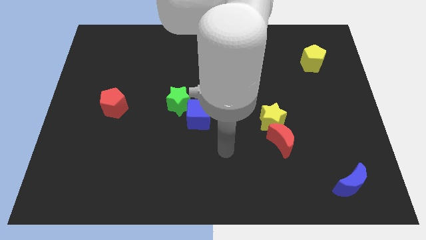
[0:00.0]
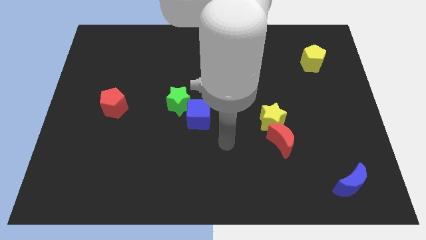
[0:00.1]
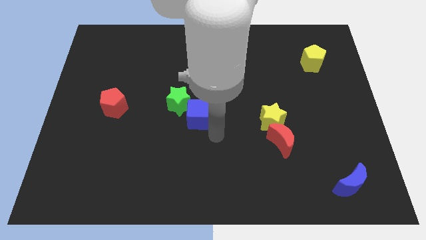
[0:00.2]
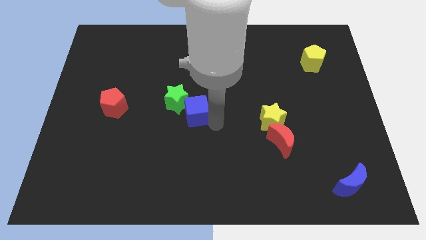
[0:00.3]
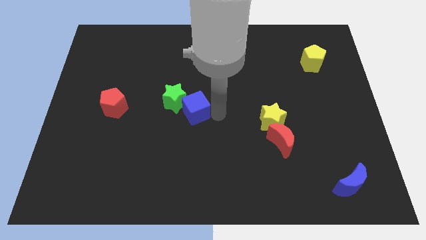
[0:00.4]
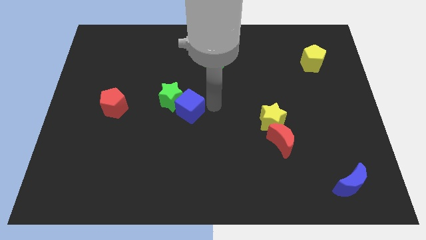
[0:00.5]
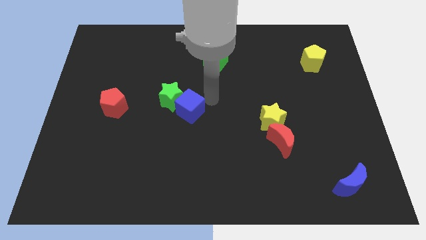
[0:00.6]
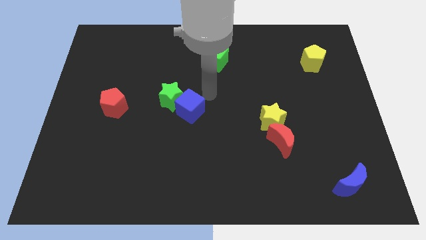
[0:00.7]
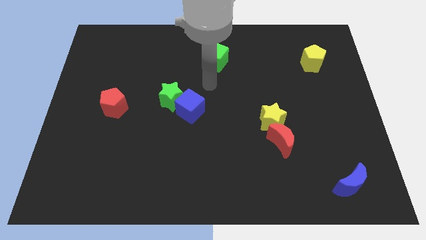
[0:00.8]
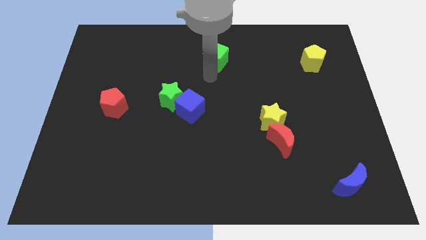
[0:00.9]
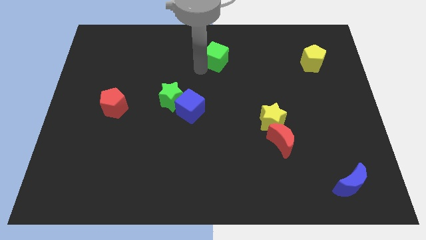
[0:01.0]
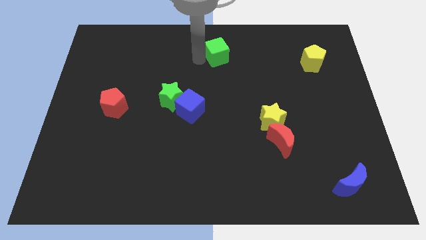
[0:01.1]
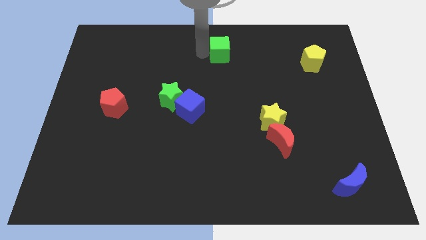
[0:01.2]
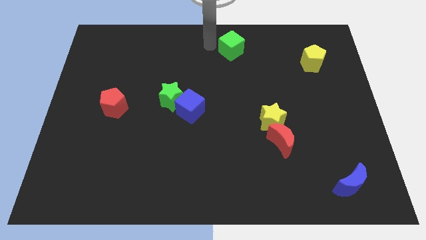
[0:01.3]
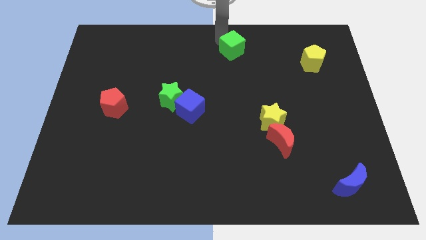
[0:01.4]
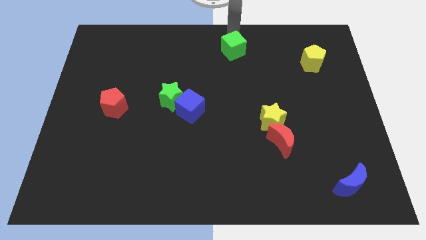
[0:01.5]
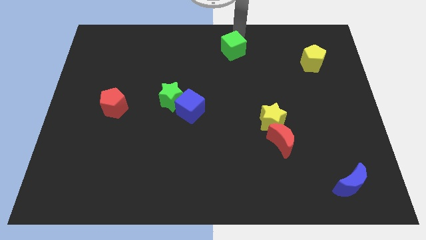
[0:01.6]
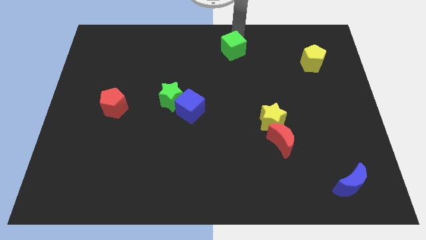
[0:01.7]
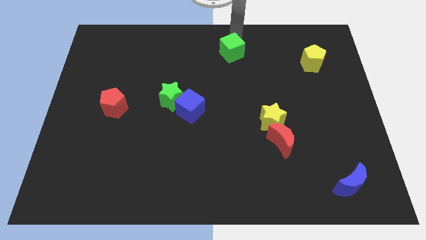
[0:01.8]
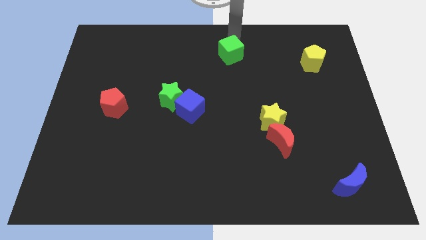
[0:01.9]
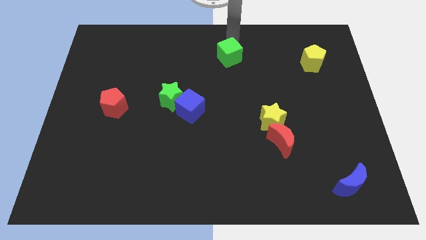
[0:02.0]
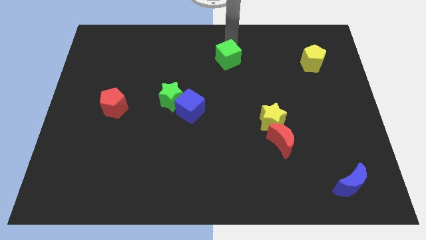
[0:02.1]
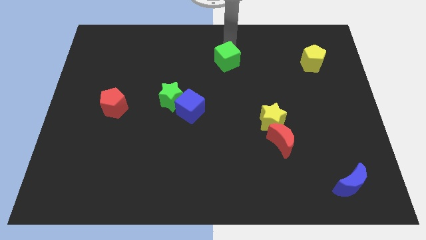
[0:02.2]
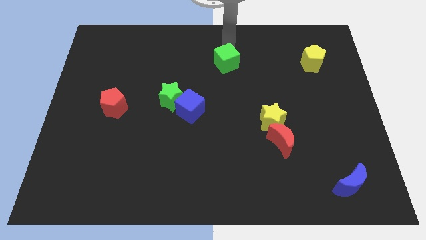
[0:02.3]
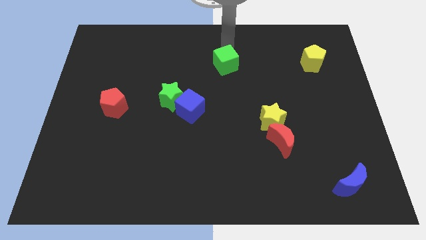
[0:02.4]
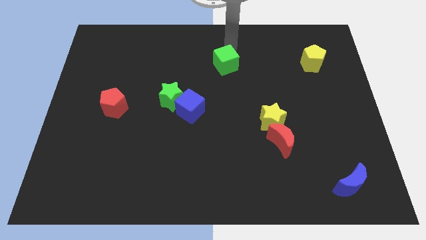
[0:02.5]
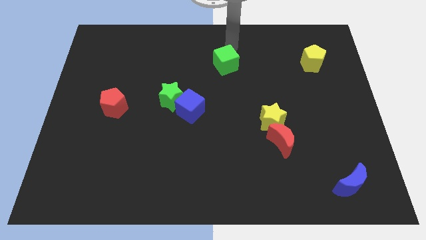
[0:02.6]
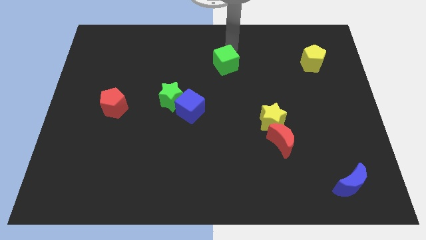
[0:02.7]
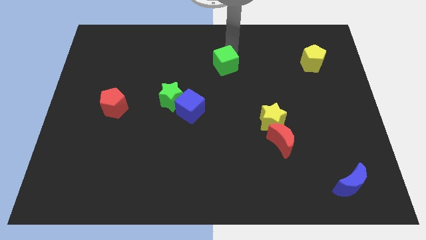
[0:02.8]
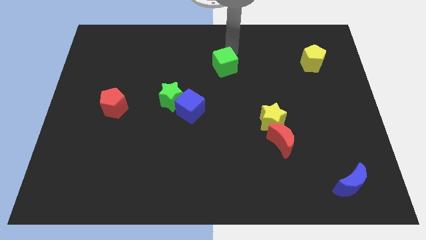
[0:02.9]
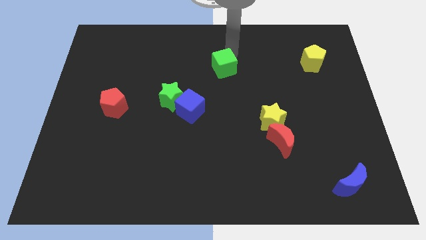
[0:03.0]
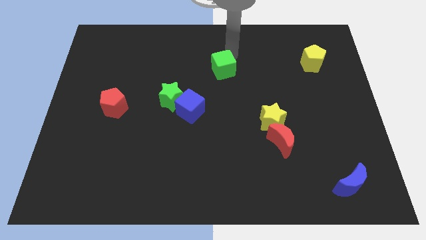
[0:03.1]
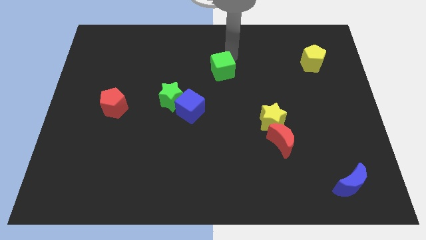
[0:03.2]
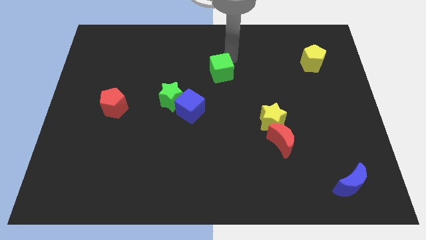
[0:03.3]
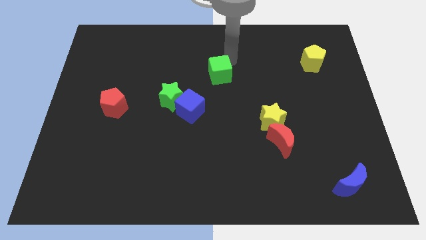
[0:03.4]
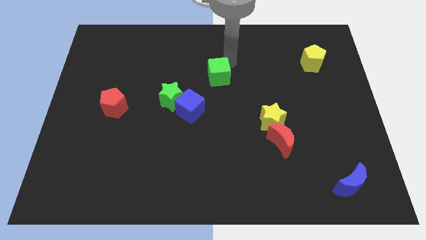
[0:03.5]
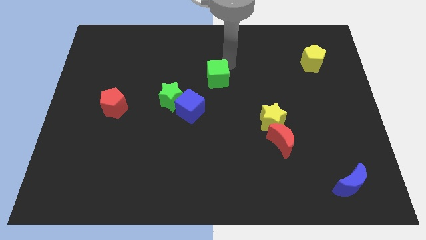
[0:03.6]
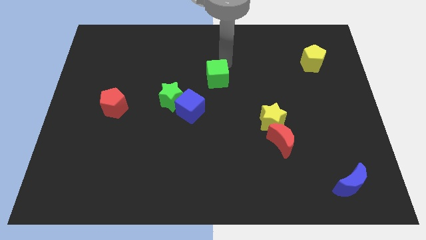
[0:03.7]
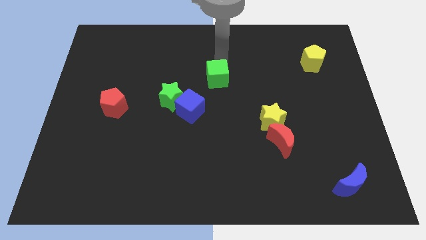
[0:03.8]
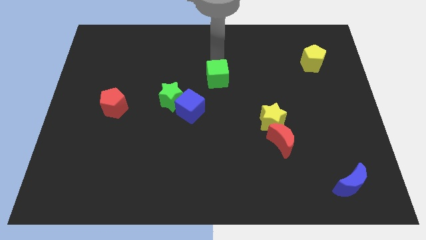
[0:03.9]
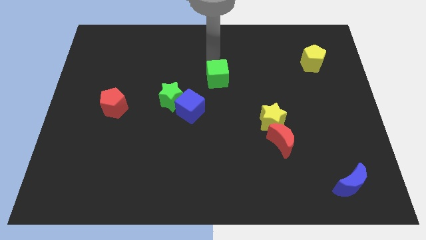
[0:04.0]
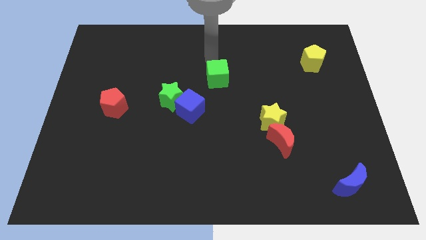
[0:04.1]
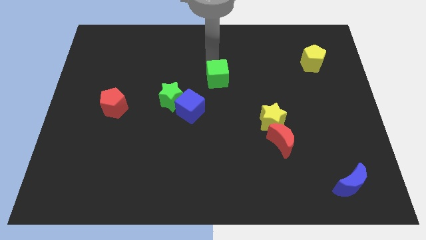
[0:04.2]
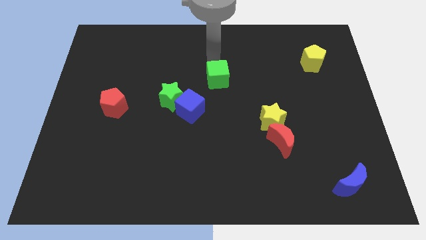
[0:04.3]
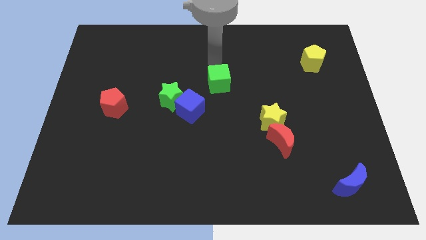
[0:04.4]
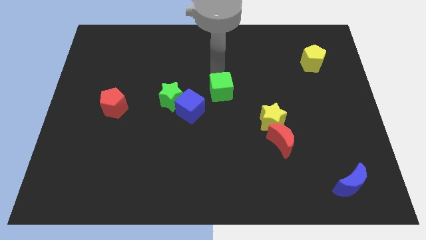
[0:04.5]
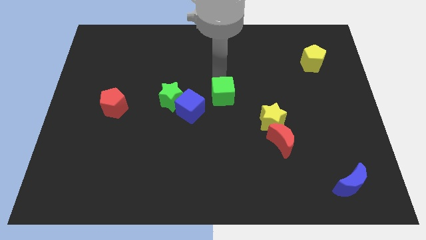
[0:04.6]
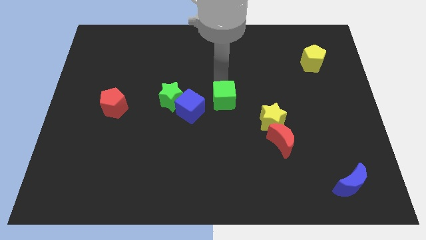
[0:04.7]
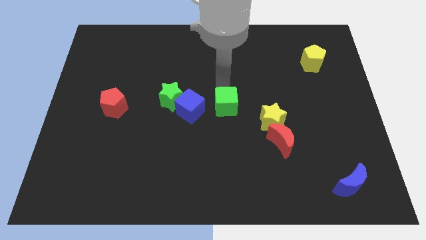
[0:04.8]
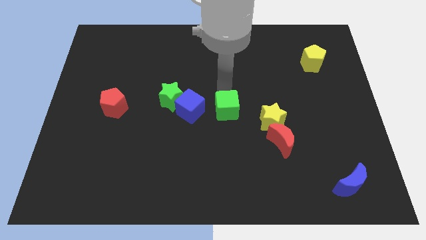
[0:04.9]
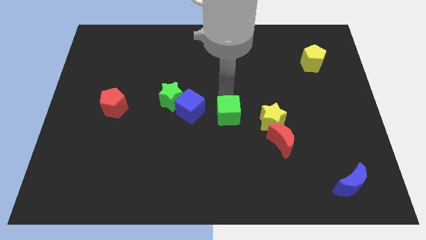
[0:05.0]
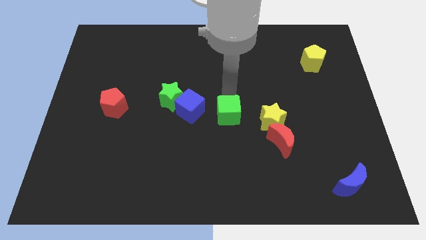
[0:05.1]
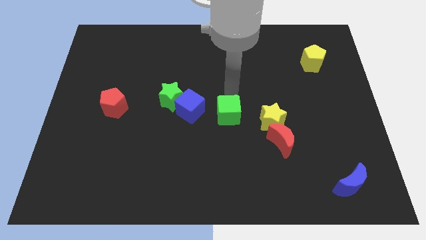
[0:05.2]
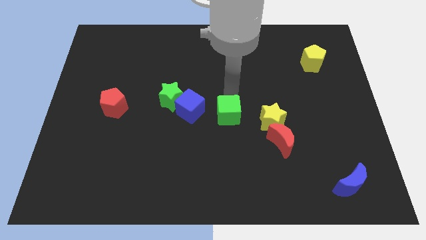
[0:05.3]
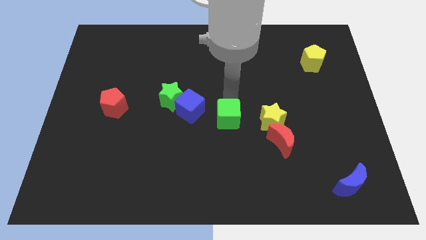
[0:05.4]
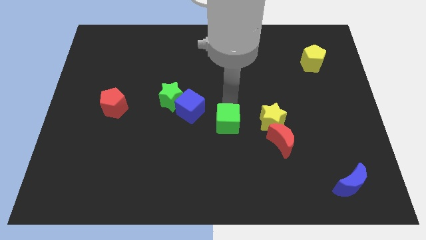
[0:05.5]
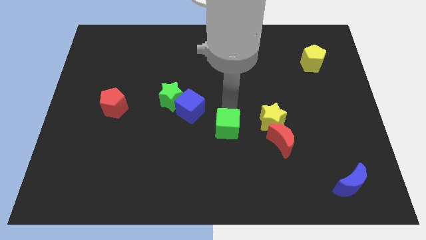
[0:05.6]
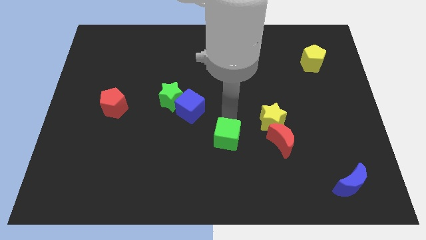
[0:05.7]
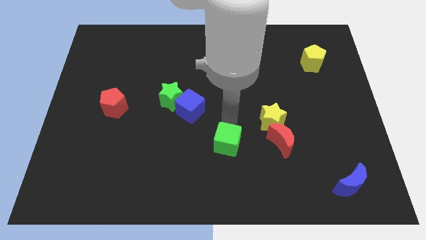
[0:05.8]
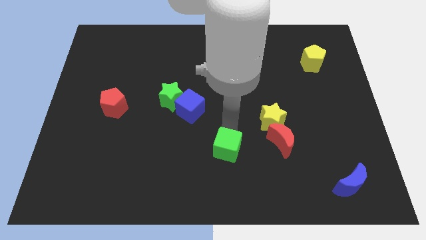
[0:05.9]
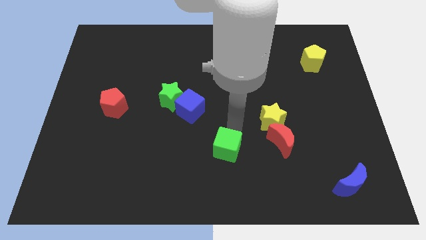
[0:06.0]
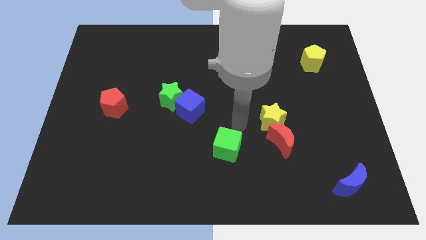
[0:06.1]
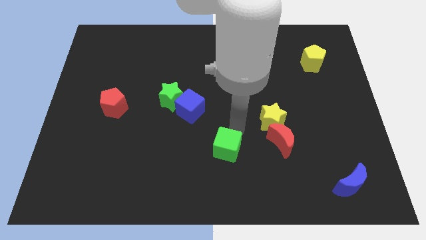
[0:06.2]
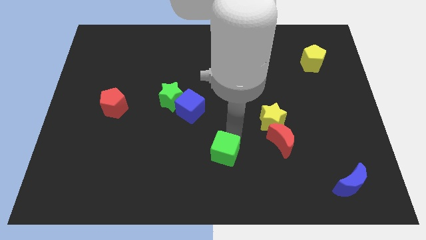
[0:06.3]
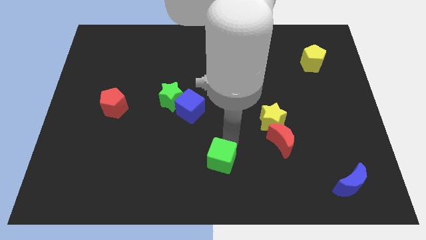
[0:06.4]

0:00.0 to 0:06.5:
move the green cube to the bottom

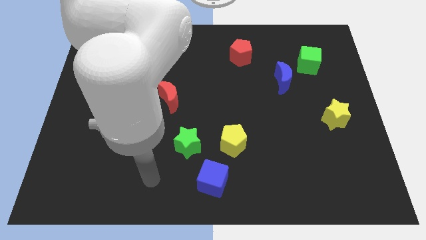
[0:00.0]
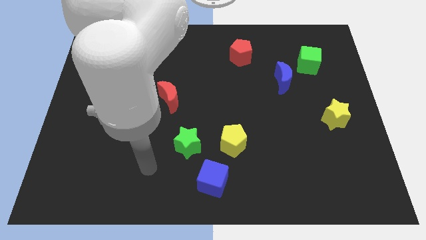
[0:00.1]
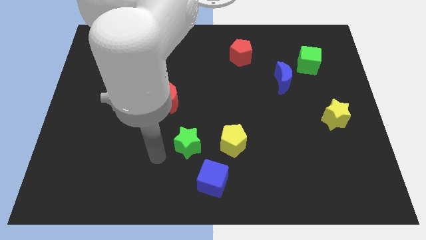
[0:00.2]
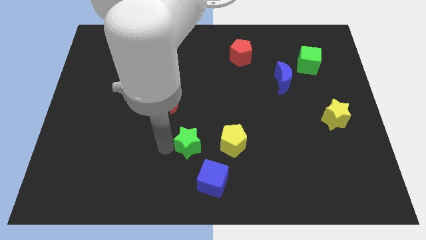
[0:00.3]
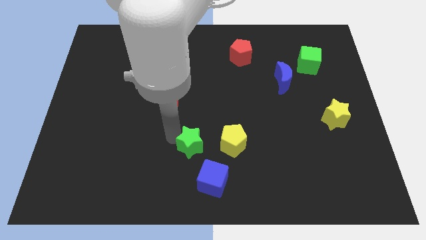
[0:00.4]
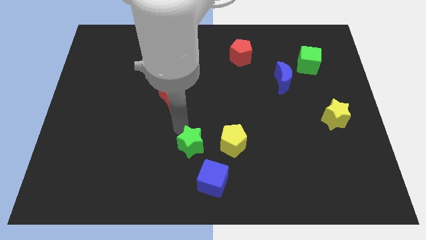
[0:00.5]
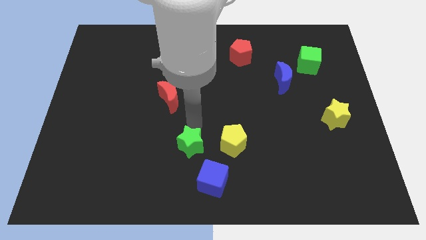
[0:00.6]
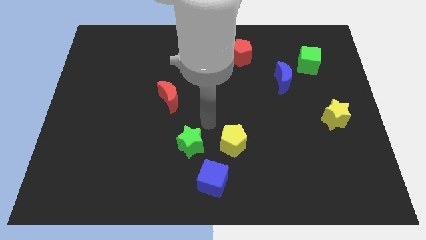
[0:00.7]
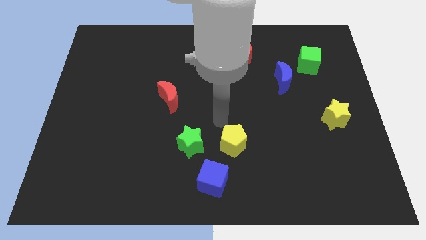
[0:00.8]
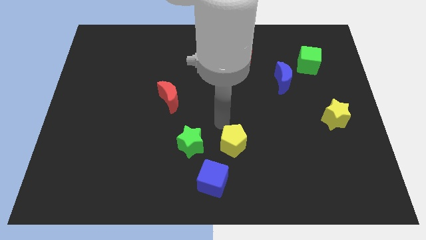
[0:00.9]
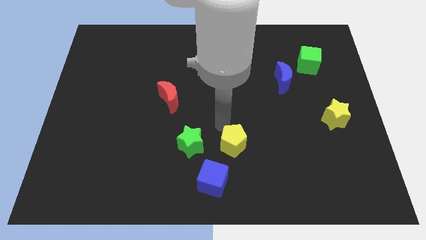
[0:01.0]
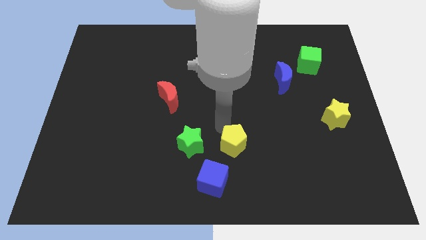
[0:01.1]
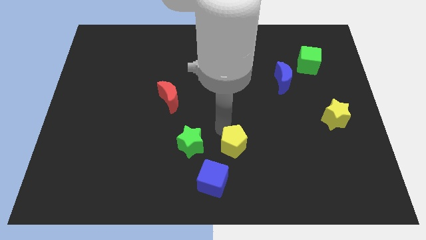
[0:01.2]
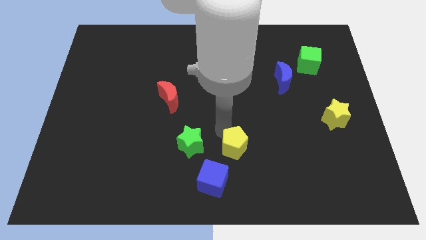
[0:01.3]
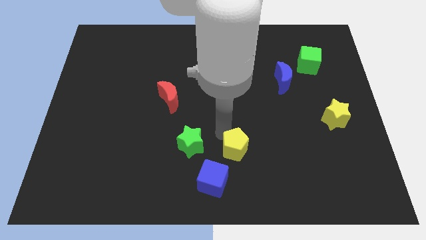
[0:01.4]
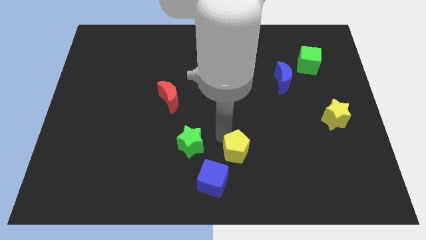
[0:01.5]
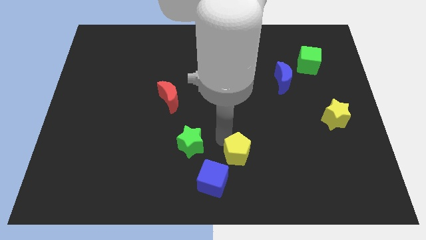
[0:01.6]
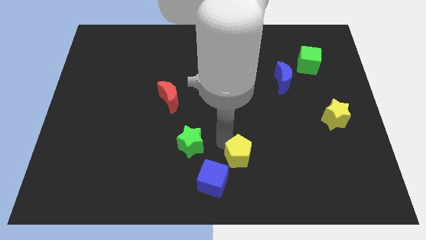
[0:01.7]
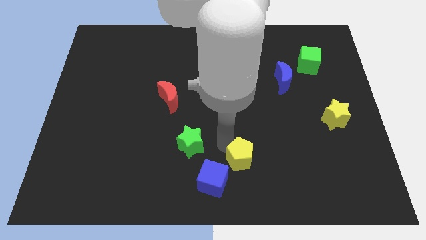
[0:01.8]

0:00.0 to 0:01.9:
move the yellow pentagon to the bottom side
